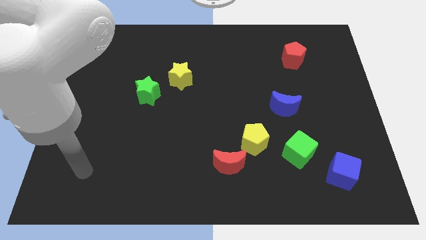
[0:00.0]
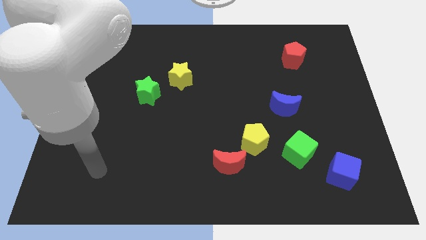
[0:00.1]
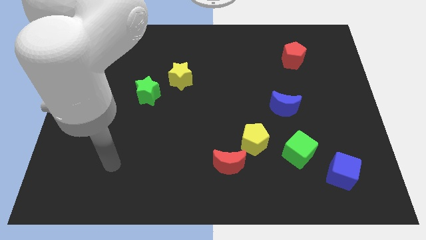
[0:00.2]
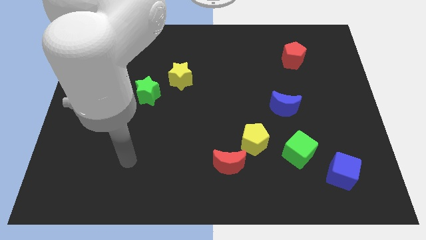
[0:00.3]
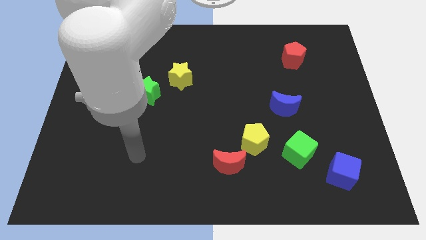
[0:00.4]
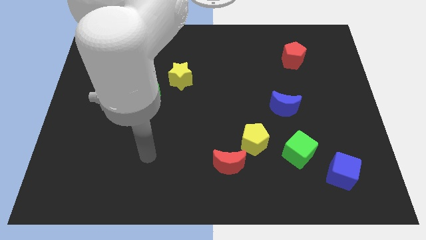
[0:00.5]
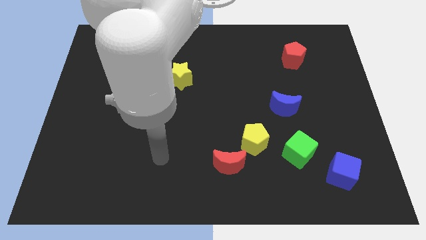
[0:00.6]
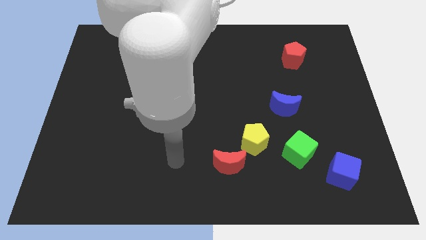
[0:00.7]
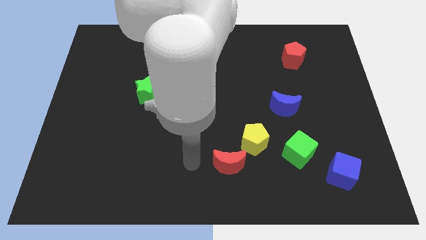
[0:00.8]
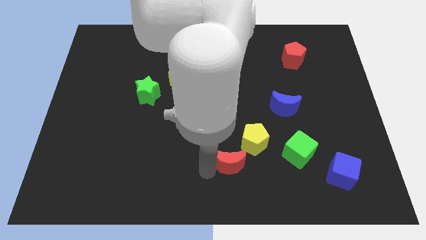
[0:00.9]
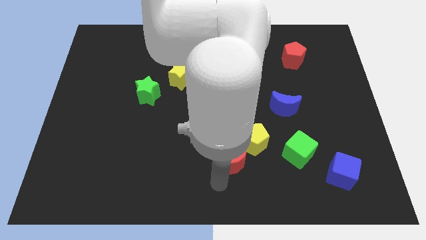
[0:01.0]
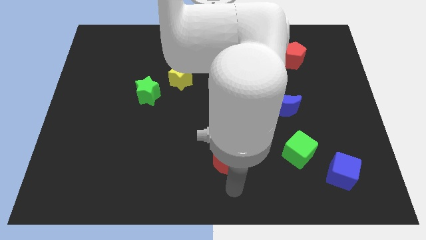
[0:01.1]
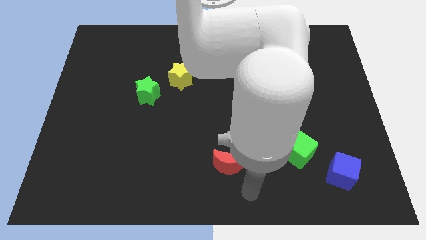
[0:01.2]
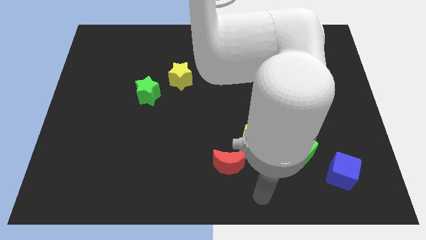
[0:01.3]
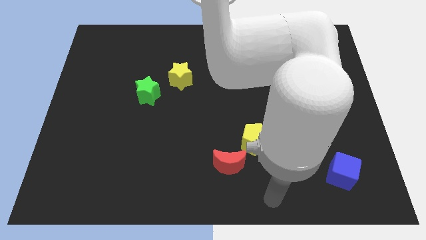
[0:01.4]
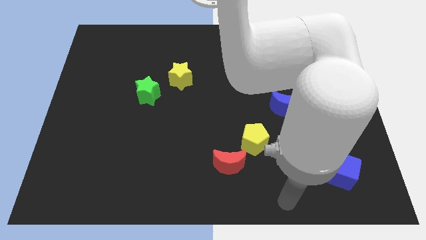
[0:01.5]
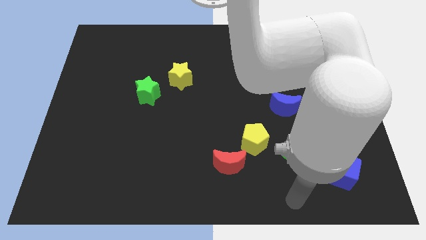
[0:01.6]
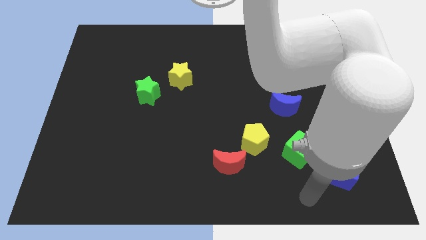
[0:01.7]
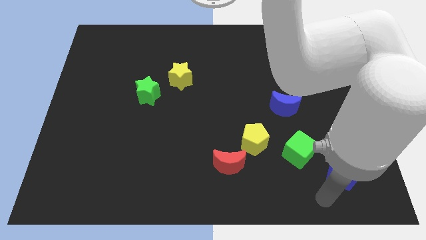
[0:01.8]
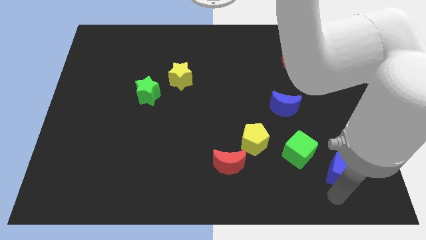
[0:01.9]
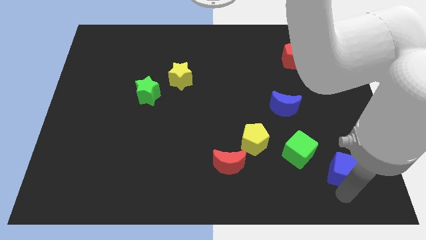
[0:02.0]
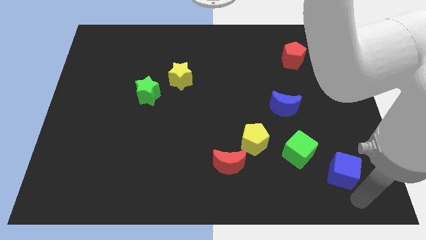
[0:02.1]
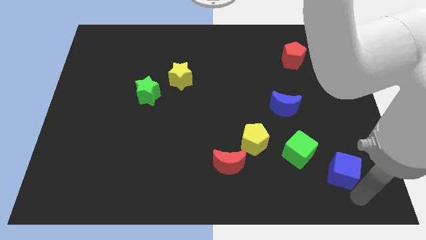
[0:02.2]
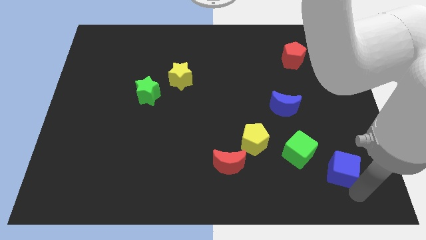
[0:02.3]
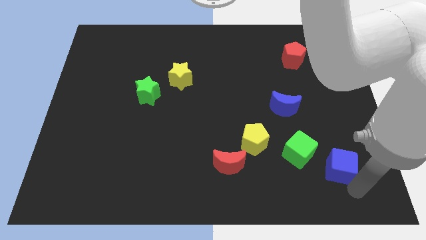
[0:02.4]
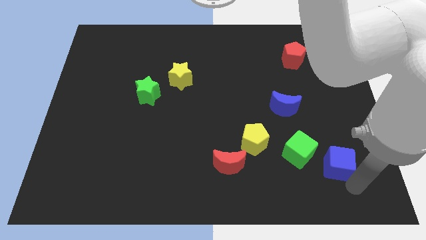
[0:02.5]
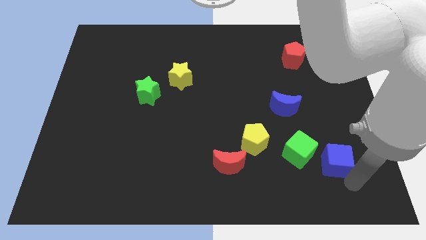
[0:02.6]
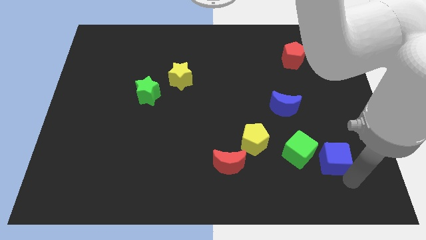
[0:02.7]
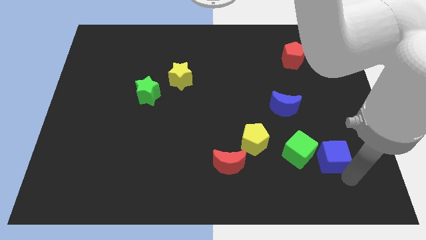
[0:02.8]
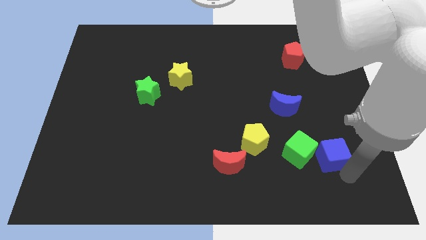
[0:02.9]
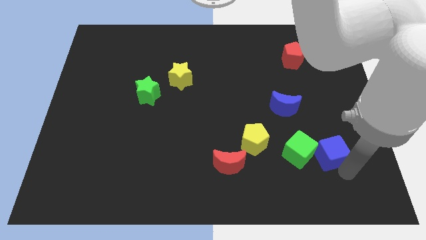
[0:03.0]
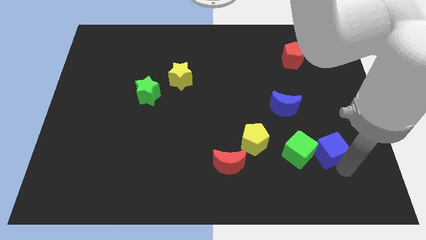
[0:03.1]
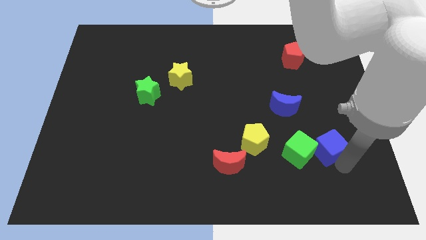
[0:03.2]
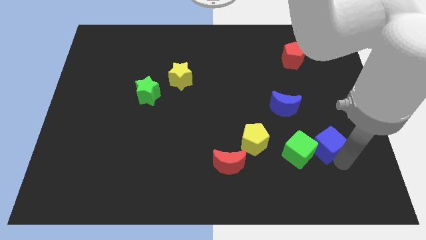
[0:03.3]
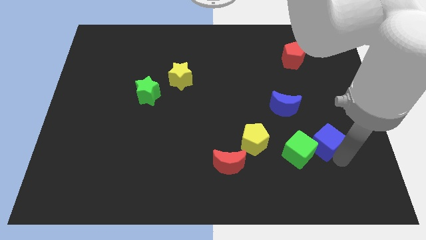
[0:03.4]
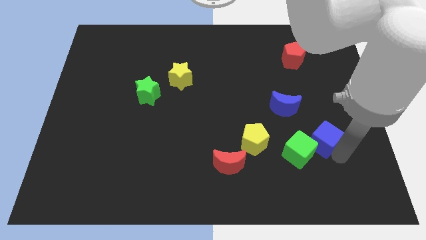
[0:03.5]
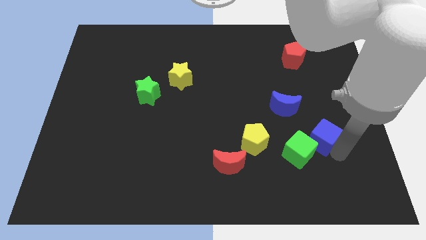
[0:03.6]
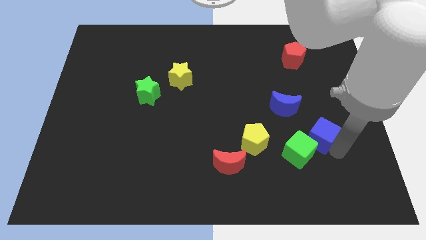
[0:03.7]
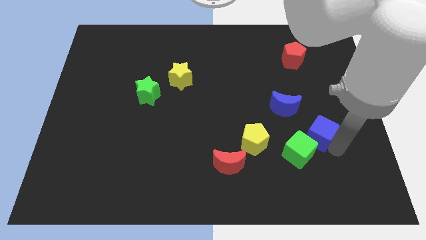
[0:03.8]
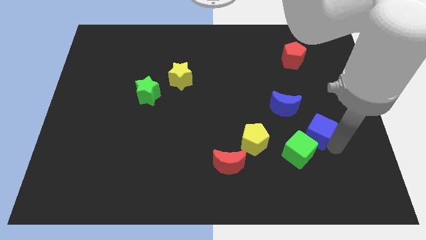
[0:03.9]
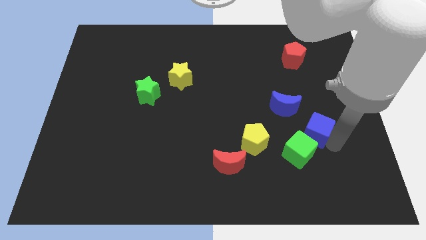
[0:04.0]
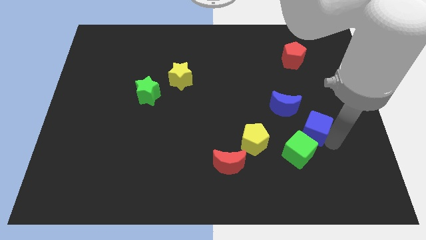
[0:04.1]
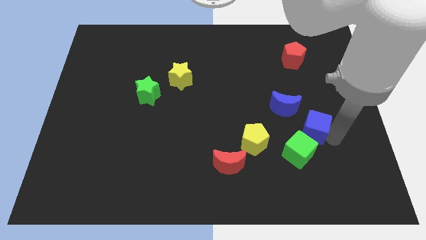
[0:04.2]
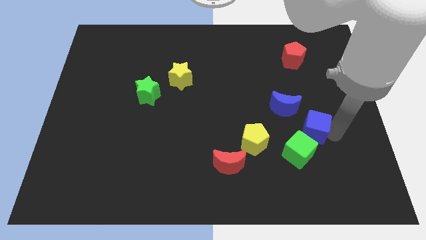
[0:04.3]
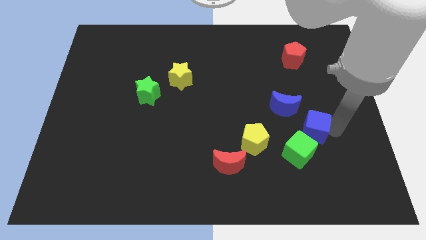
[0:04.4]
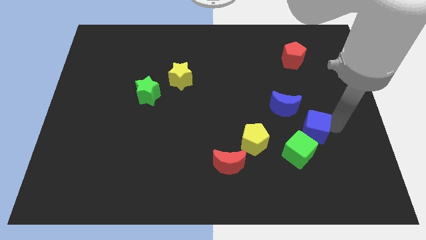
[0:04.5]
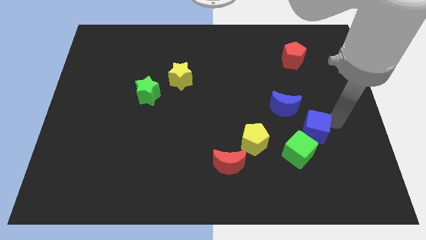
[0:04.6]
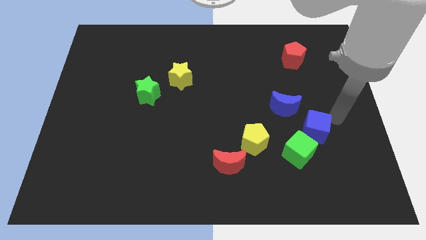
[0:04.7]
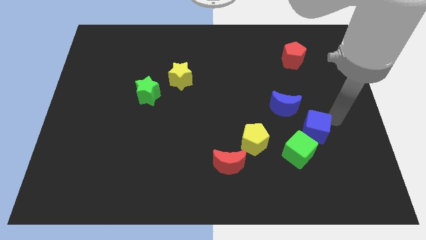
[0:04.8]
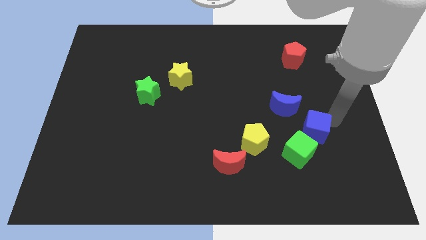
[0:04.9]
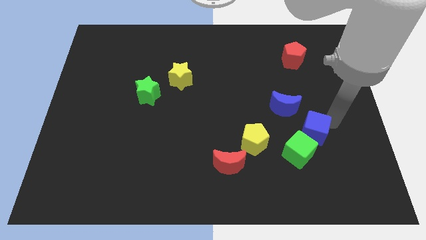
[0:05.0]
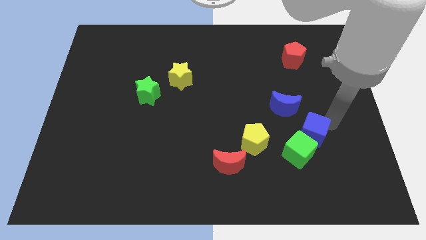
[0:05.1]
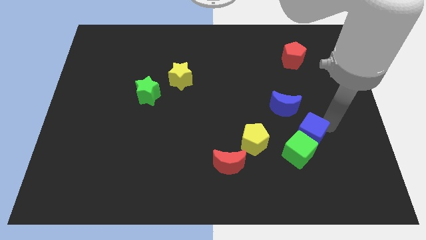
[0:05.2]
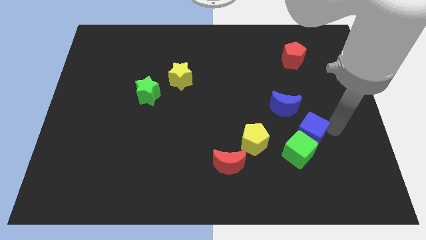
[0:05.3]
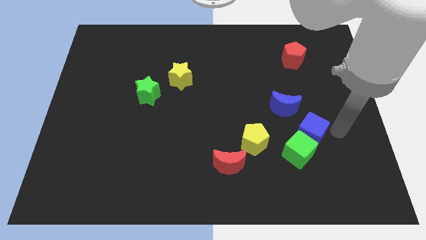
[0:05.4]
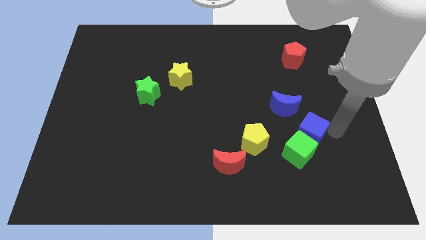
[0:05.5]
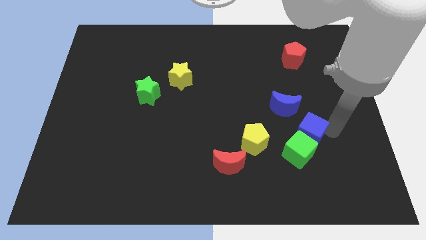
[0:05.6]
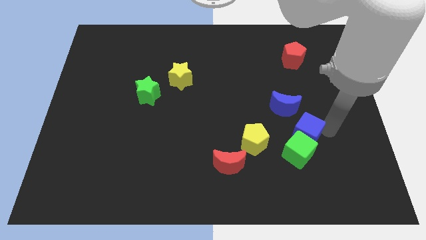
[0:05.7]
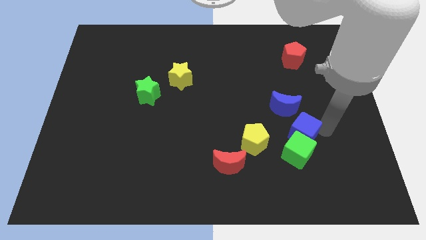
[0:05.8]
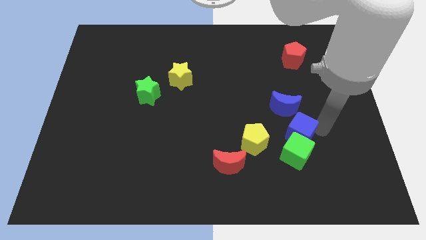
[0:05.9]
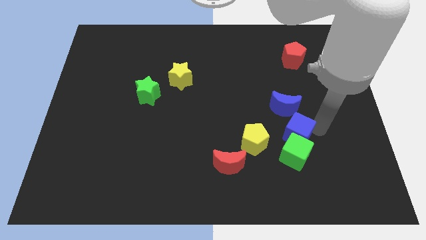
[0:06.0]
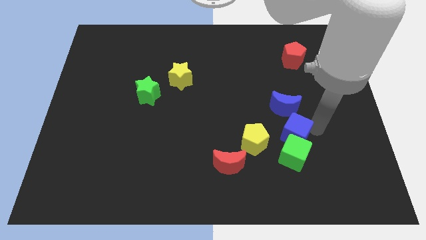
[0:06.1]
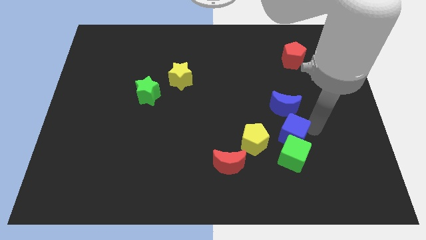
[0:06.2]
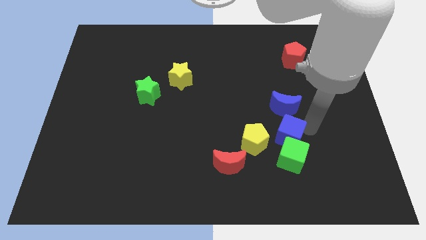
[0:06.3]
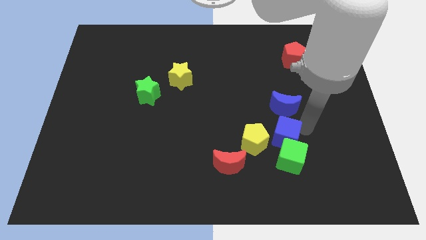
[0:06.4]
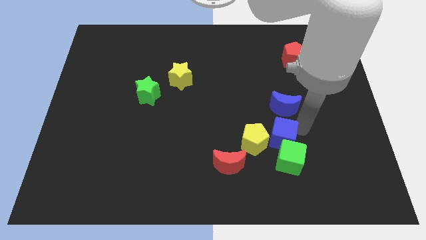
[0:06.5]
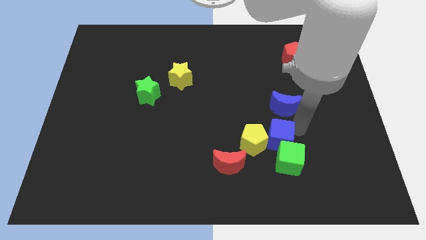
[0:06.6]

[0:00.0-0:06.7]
push the blue cube towards the yellow pentagon

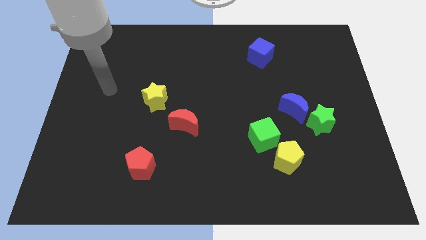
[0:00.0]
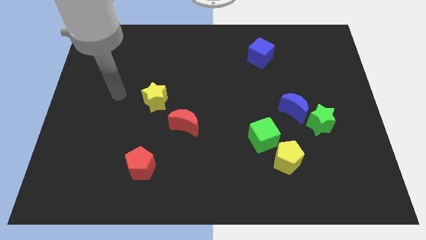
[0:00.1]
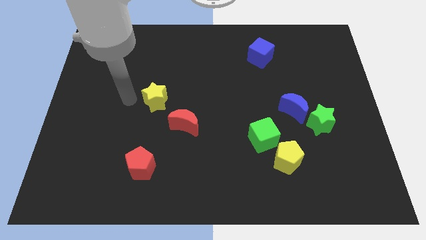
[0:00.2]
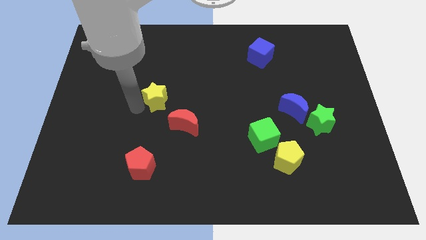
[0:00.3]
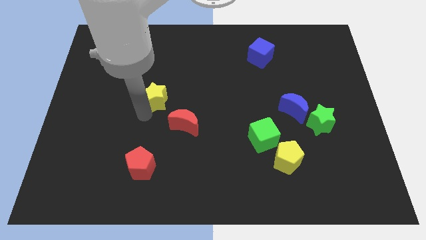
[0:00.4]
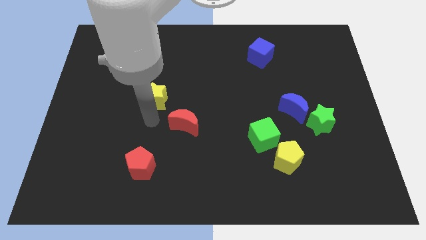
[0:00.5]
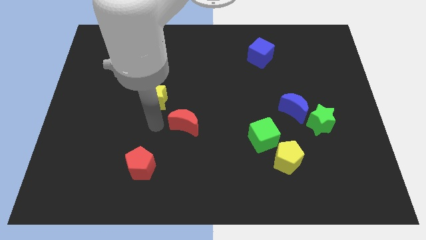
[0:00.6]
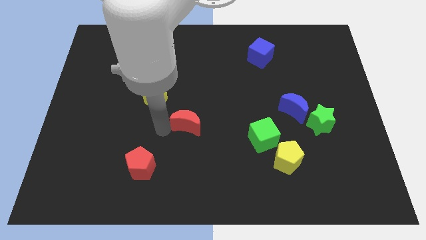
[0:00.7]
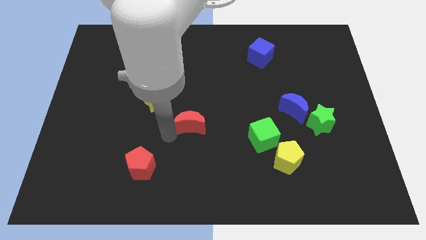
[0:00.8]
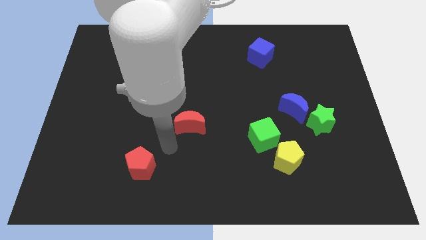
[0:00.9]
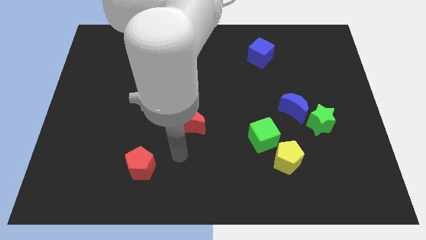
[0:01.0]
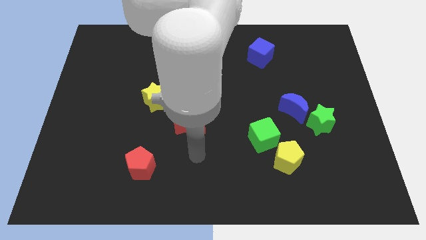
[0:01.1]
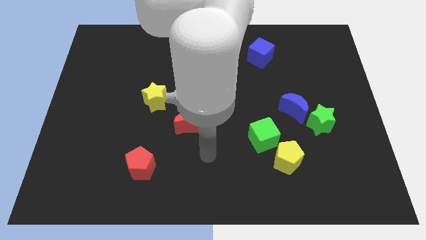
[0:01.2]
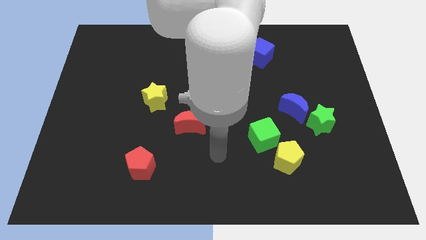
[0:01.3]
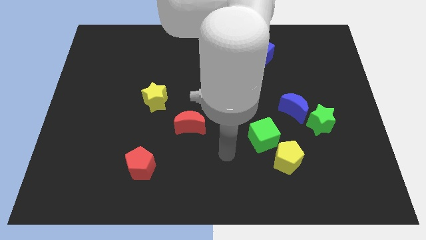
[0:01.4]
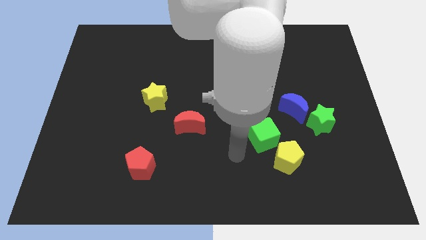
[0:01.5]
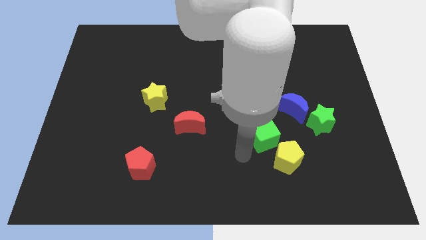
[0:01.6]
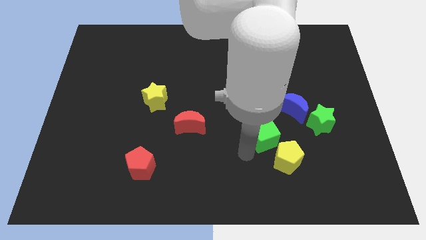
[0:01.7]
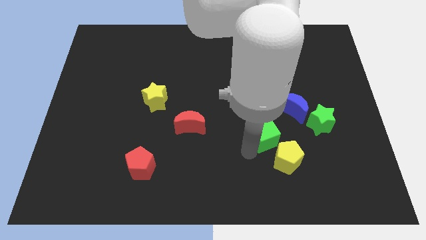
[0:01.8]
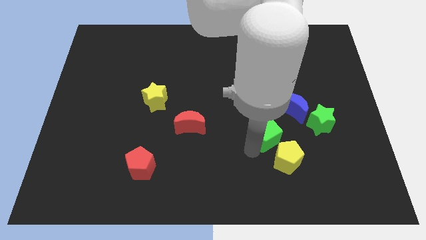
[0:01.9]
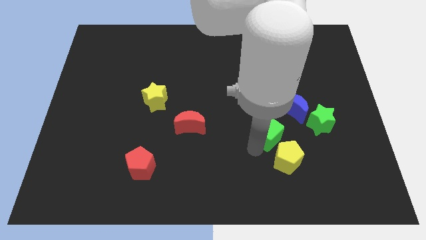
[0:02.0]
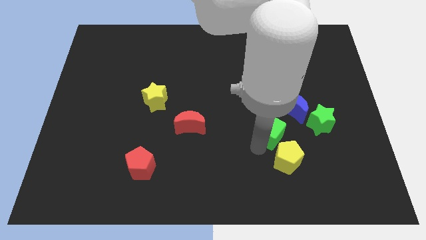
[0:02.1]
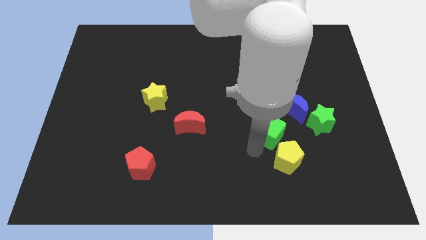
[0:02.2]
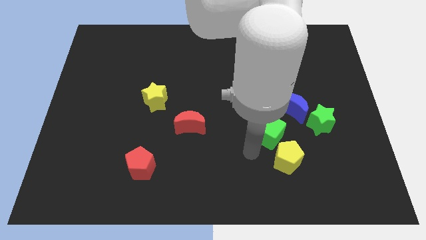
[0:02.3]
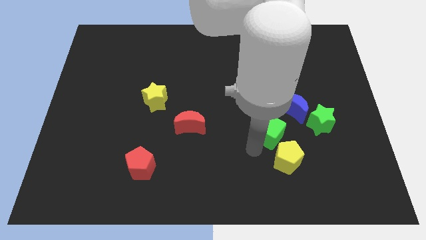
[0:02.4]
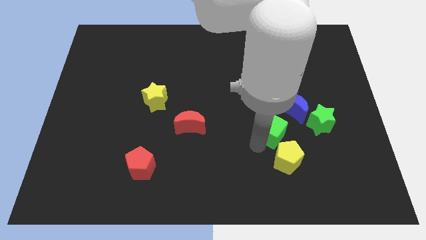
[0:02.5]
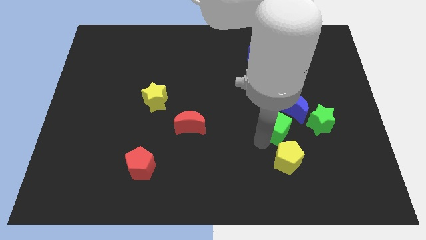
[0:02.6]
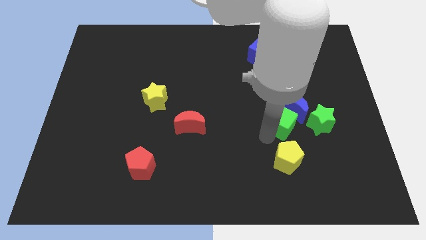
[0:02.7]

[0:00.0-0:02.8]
put the green cube close to the blue moon
